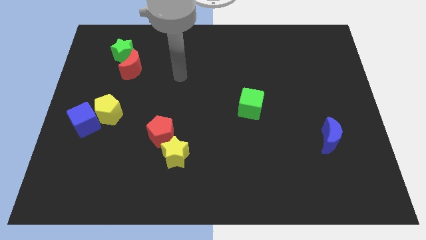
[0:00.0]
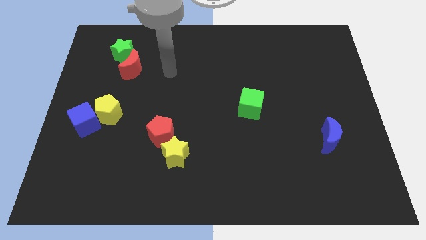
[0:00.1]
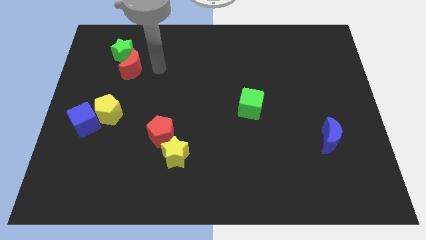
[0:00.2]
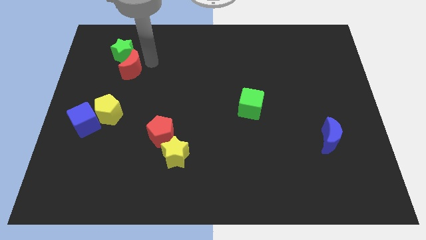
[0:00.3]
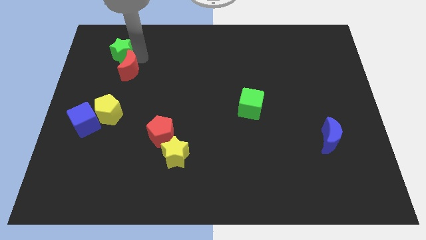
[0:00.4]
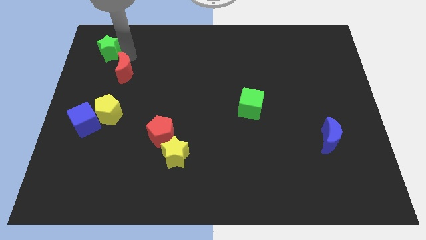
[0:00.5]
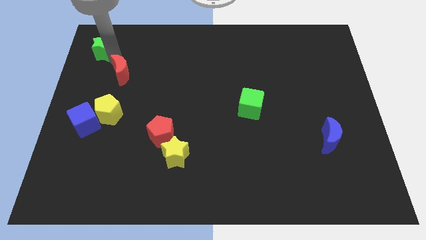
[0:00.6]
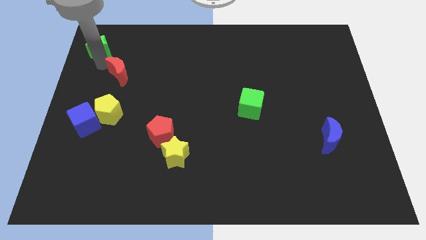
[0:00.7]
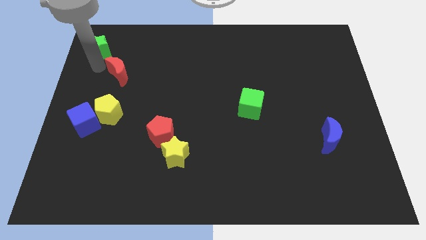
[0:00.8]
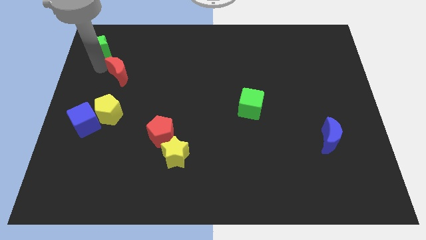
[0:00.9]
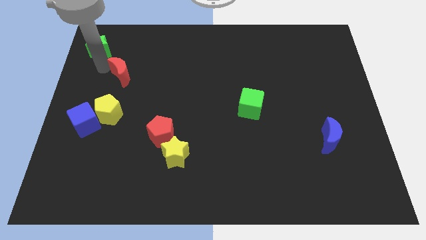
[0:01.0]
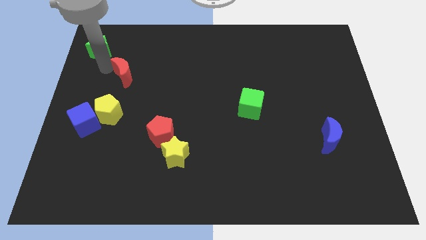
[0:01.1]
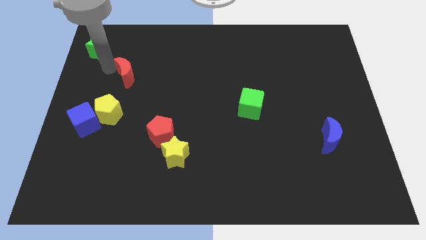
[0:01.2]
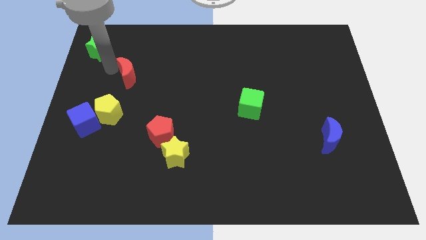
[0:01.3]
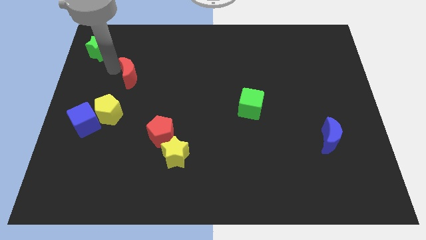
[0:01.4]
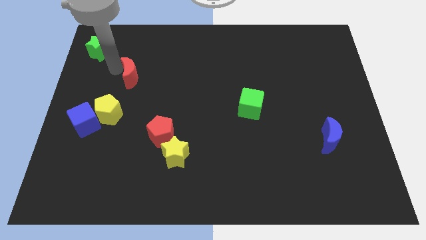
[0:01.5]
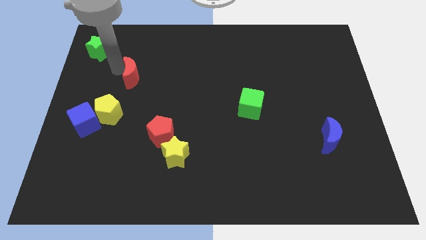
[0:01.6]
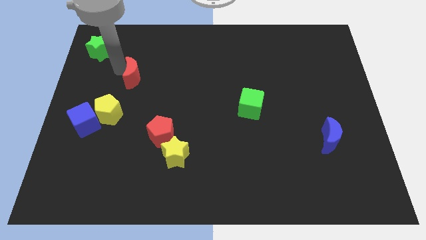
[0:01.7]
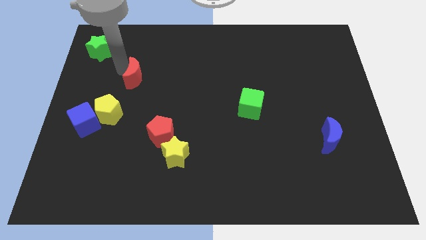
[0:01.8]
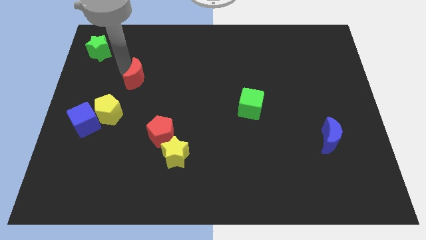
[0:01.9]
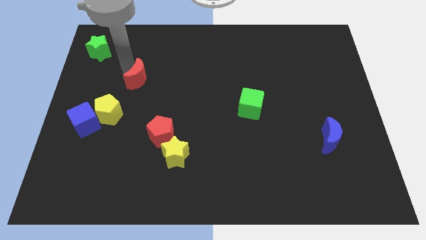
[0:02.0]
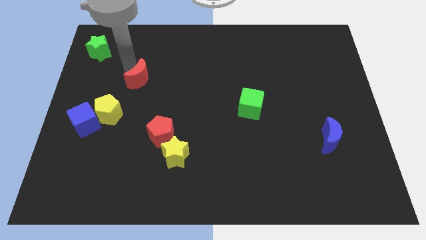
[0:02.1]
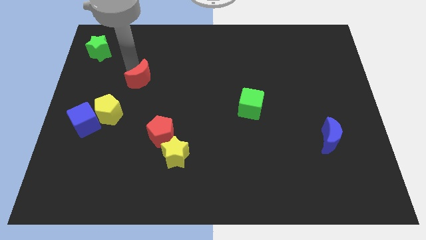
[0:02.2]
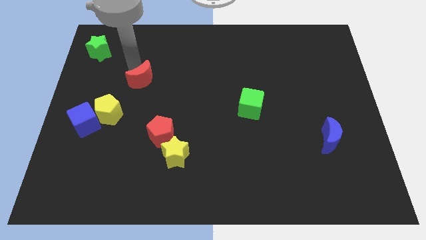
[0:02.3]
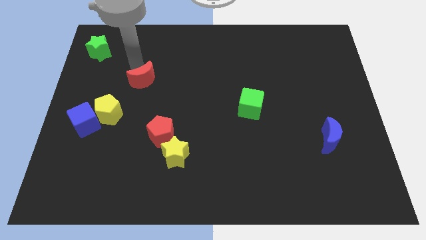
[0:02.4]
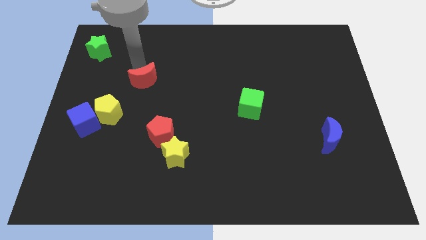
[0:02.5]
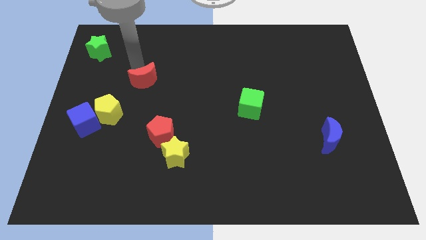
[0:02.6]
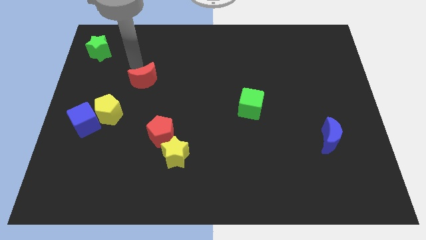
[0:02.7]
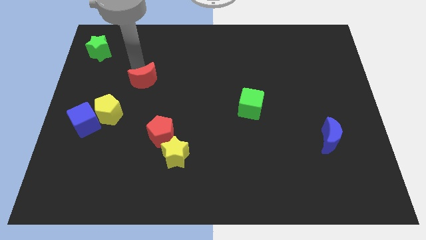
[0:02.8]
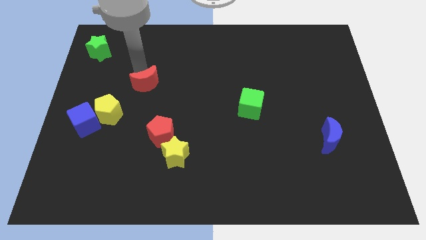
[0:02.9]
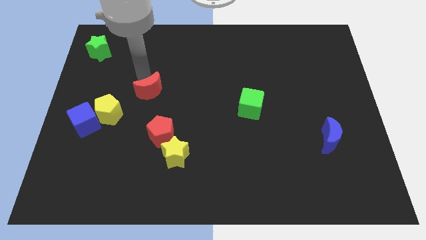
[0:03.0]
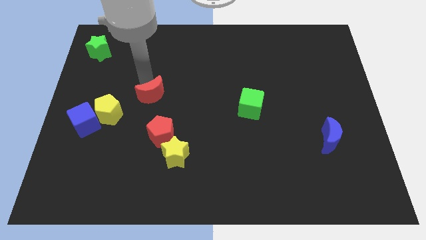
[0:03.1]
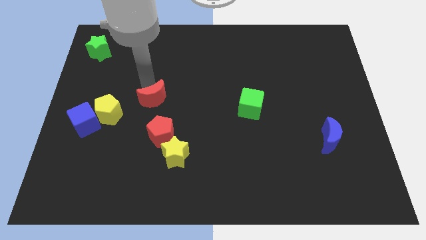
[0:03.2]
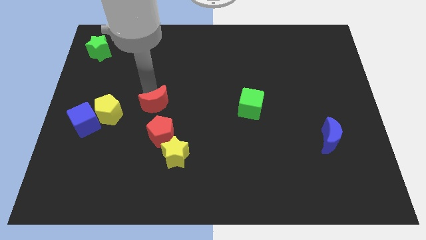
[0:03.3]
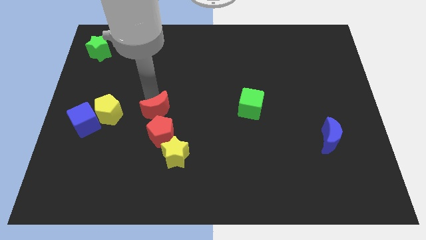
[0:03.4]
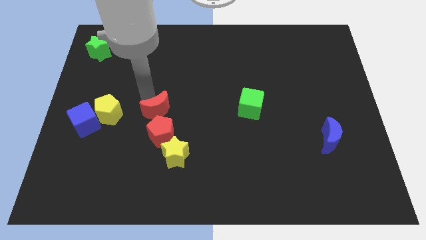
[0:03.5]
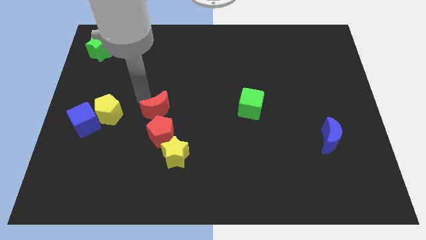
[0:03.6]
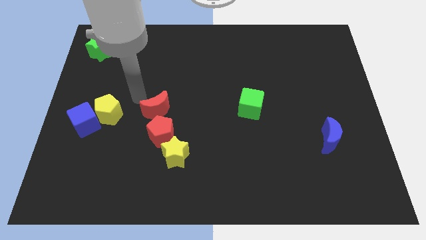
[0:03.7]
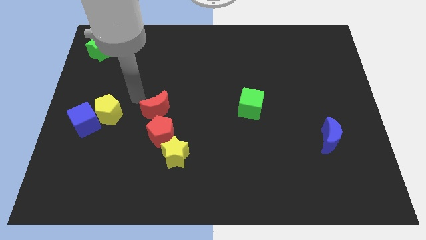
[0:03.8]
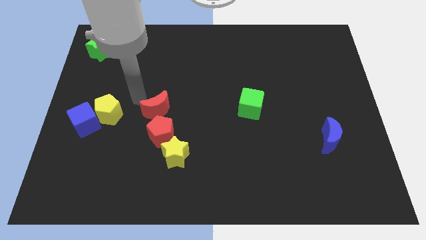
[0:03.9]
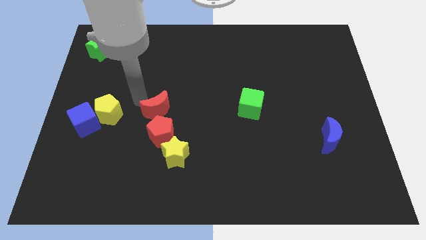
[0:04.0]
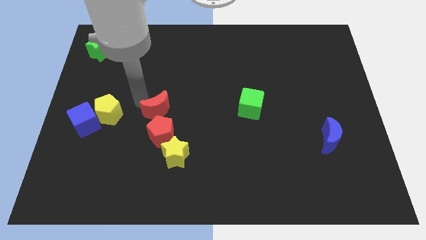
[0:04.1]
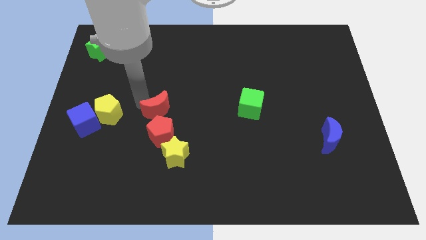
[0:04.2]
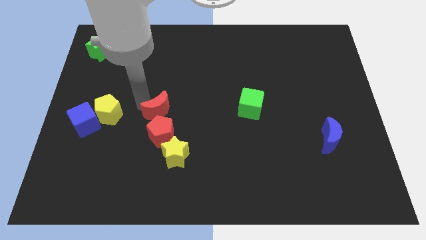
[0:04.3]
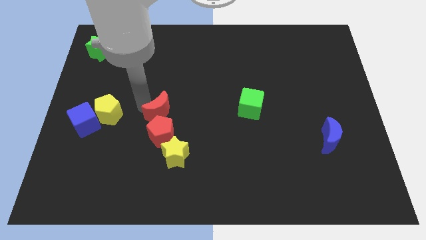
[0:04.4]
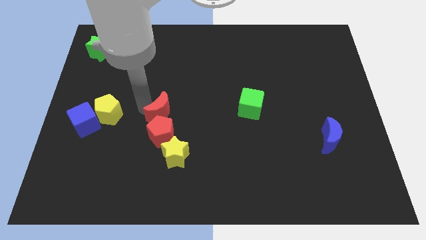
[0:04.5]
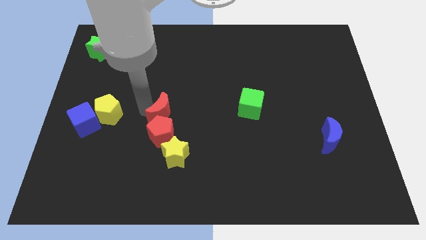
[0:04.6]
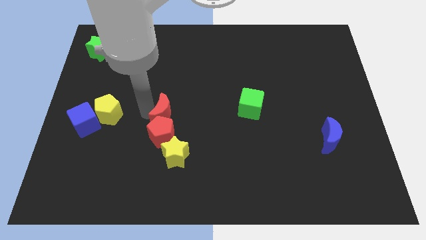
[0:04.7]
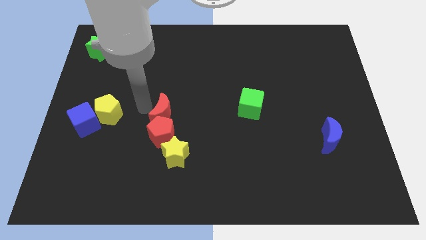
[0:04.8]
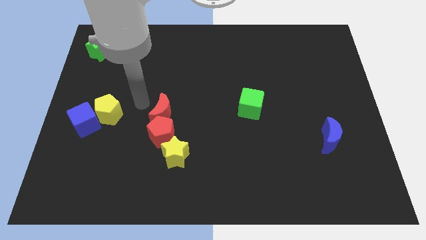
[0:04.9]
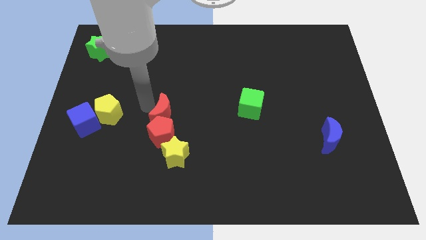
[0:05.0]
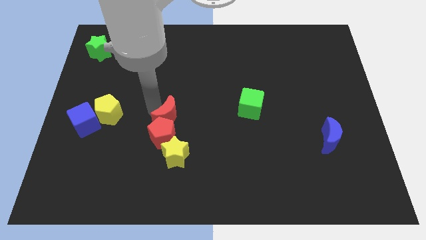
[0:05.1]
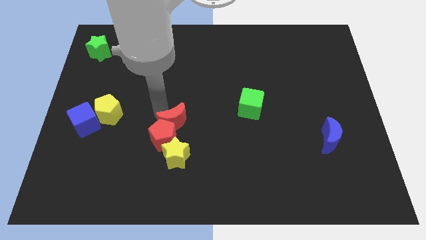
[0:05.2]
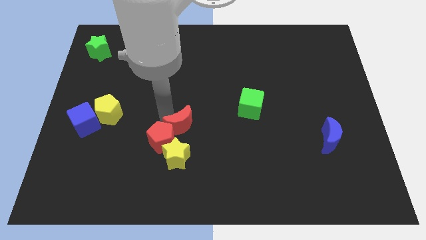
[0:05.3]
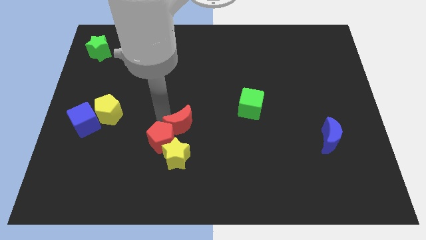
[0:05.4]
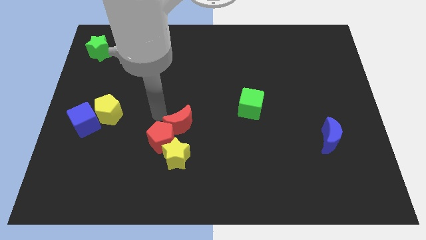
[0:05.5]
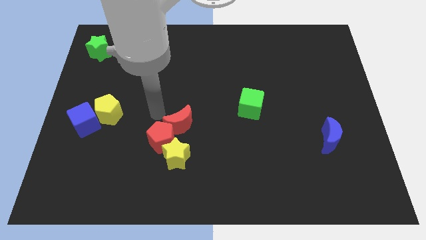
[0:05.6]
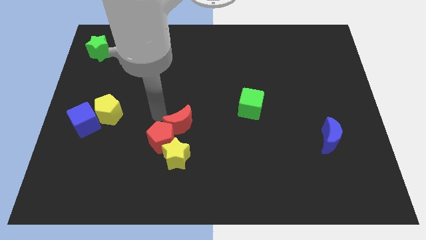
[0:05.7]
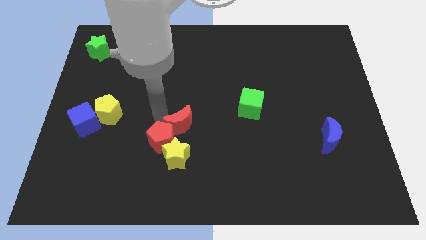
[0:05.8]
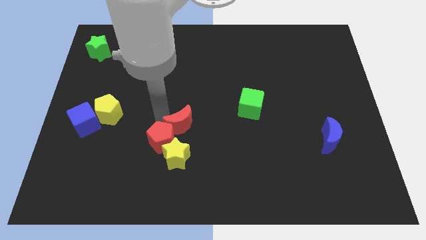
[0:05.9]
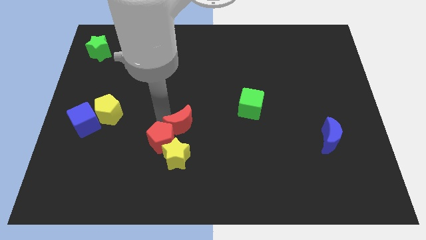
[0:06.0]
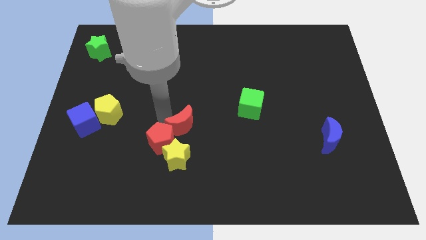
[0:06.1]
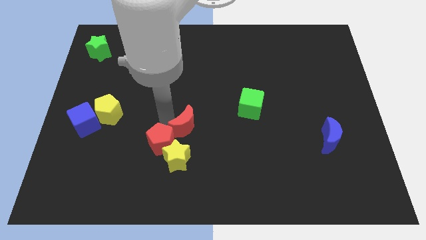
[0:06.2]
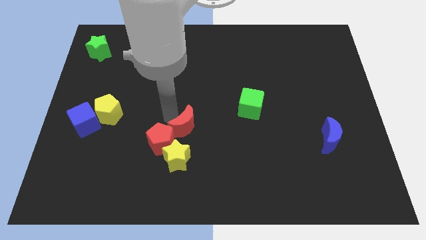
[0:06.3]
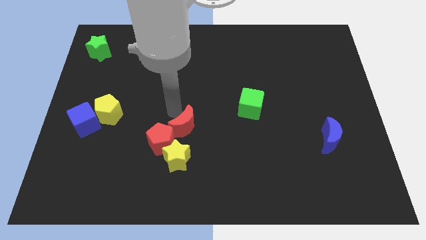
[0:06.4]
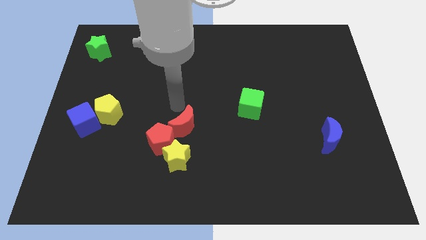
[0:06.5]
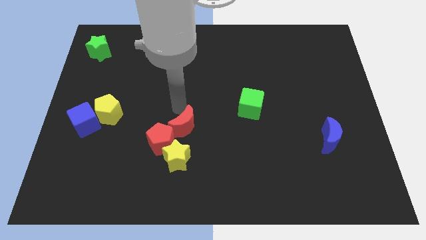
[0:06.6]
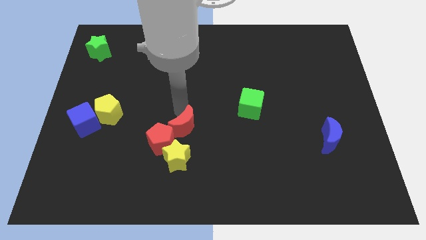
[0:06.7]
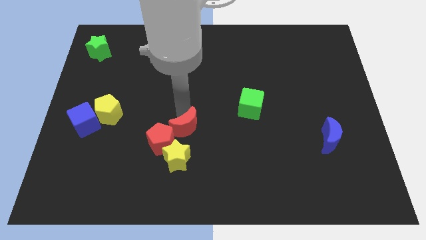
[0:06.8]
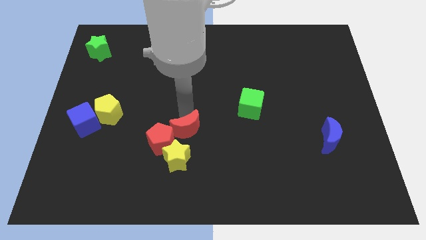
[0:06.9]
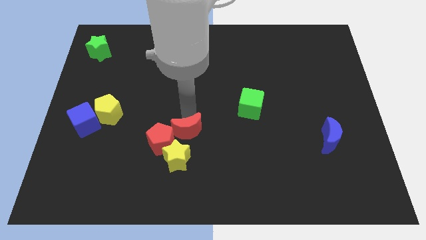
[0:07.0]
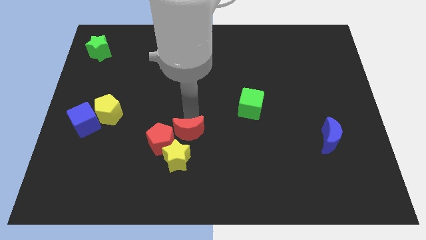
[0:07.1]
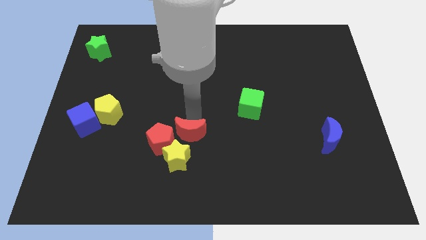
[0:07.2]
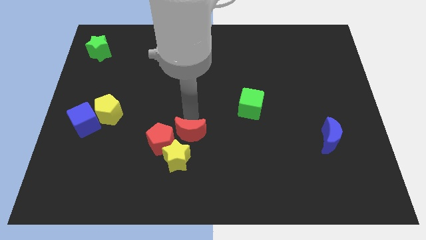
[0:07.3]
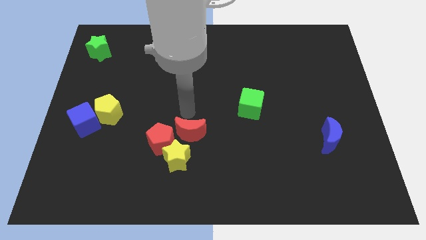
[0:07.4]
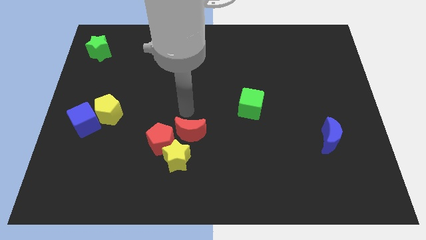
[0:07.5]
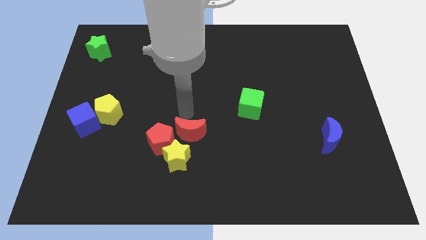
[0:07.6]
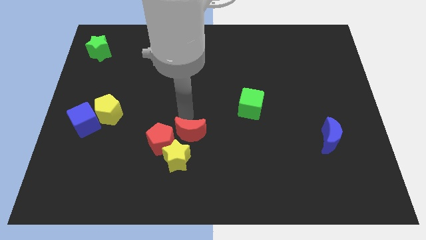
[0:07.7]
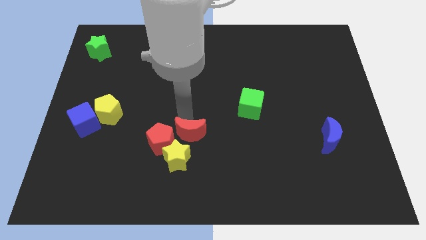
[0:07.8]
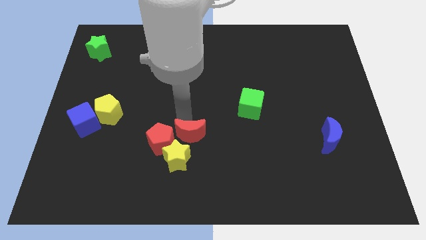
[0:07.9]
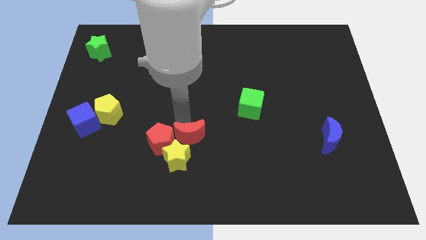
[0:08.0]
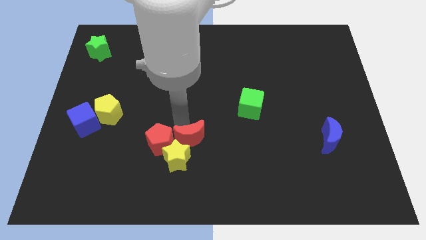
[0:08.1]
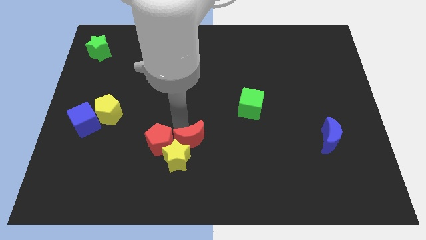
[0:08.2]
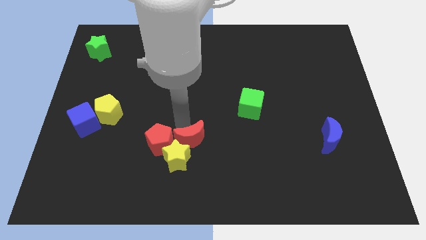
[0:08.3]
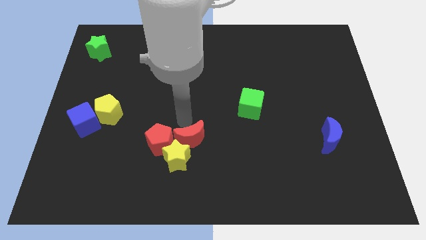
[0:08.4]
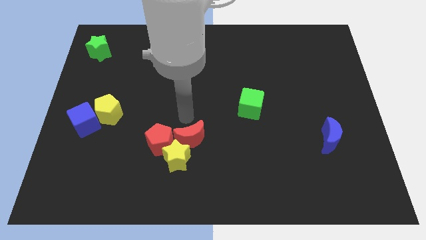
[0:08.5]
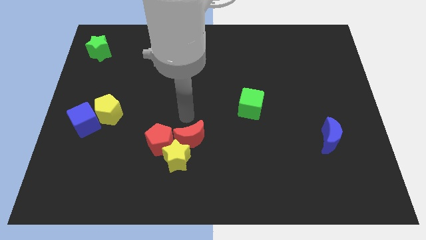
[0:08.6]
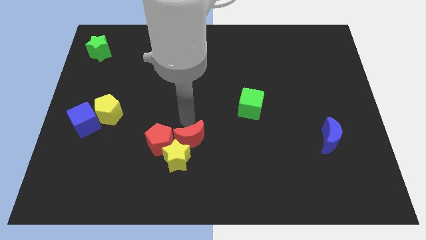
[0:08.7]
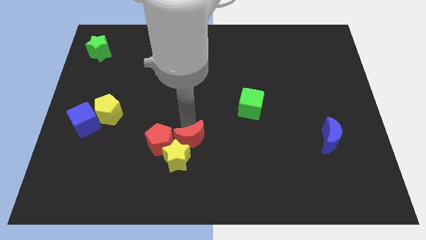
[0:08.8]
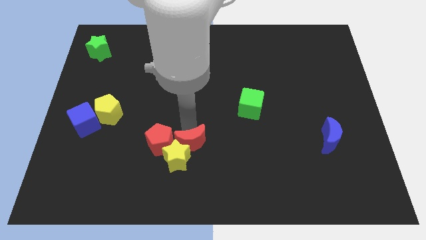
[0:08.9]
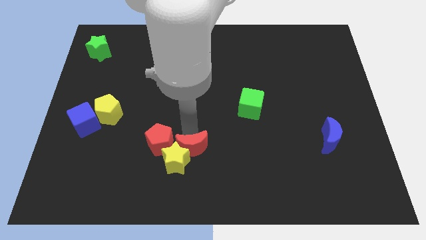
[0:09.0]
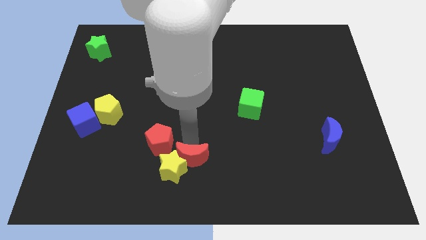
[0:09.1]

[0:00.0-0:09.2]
move the red moon to the bottom
